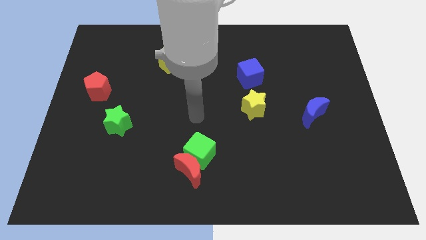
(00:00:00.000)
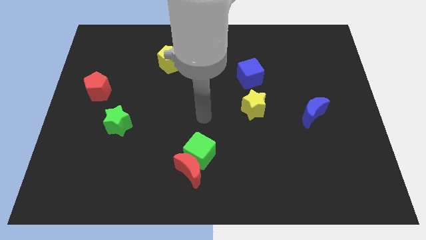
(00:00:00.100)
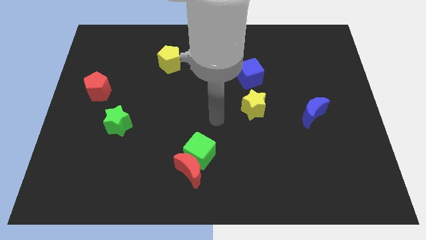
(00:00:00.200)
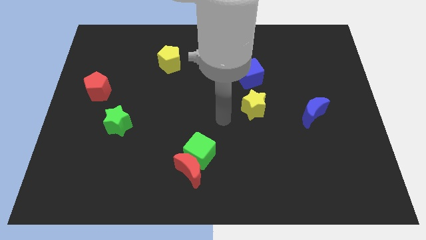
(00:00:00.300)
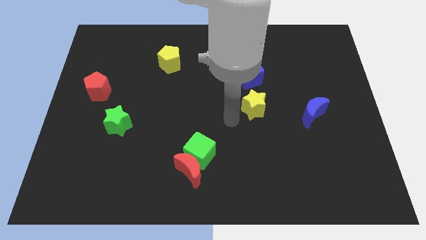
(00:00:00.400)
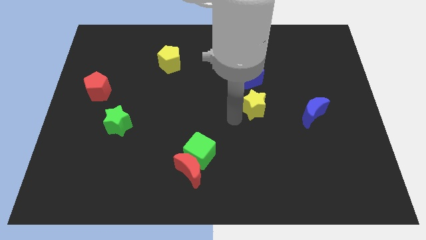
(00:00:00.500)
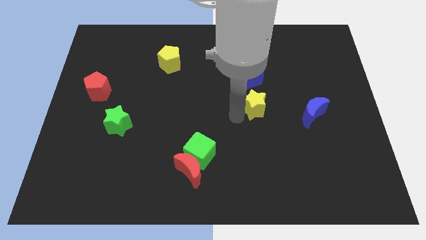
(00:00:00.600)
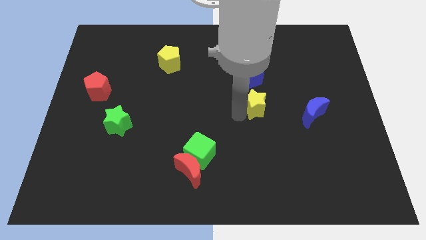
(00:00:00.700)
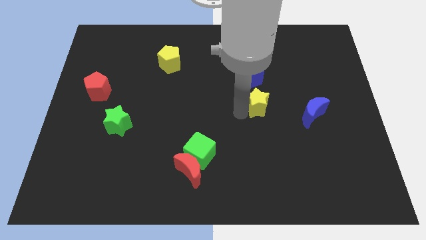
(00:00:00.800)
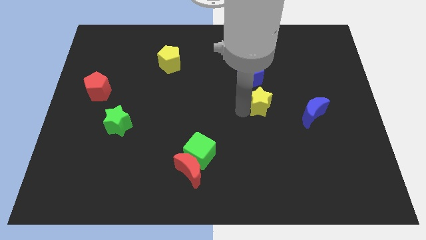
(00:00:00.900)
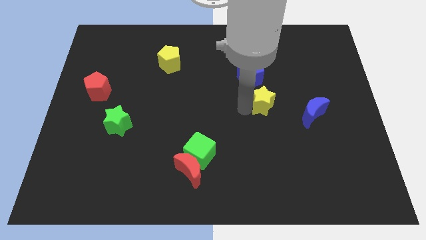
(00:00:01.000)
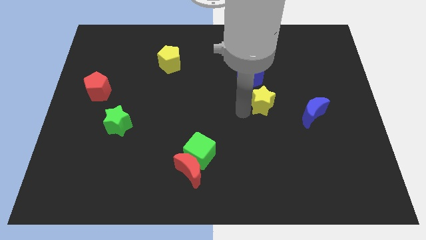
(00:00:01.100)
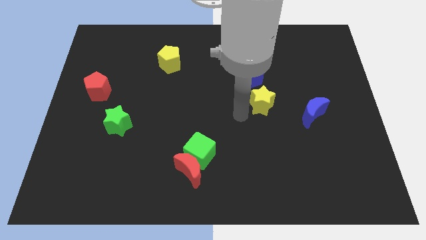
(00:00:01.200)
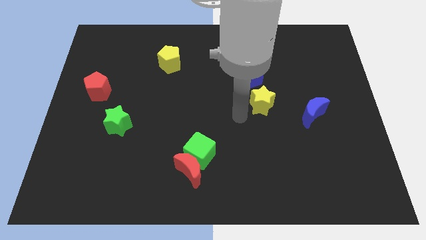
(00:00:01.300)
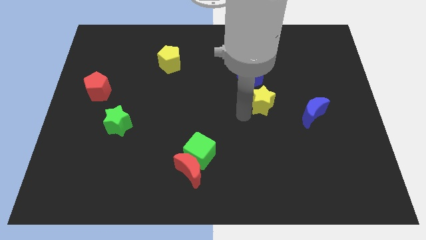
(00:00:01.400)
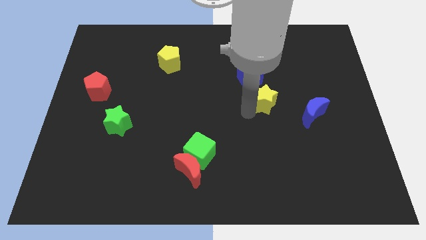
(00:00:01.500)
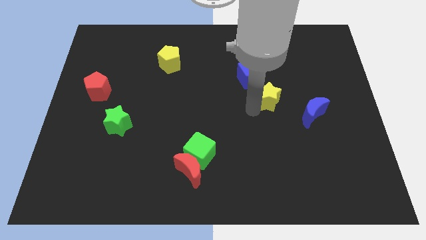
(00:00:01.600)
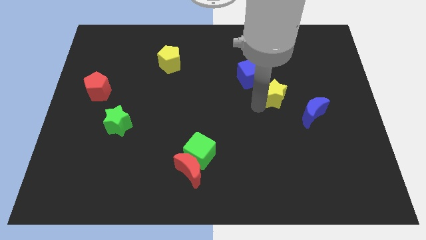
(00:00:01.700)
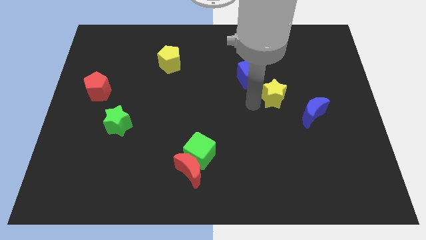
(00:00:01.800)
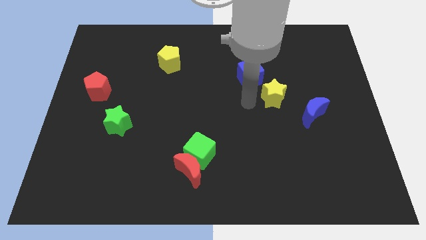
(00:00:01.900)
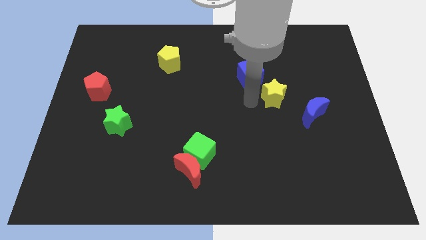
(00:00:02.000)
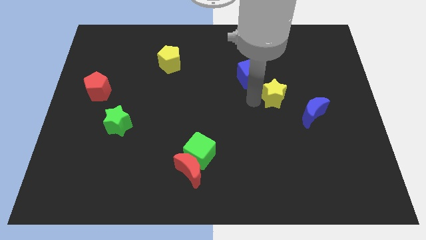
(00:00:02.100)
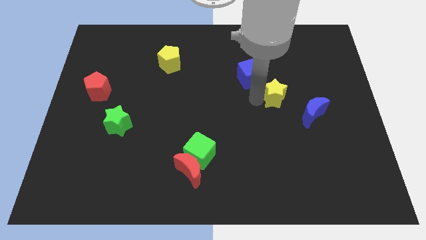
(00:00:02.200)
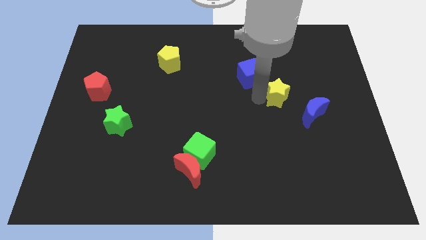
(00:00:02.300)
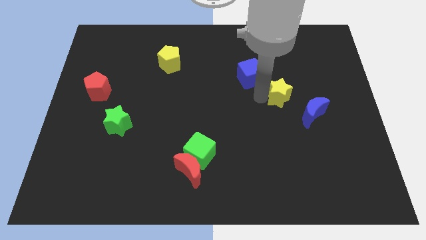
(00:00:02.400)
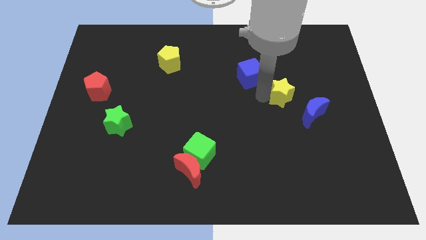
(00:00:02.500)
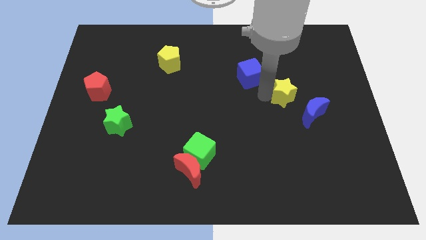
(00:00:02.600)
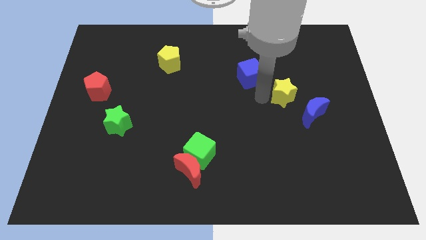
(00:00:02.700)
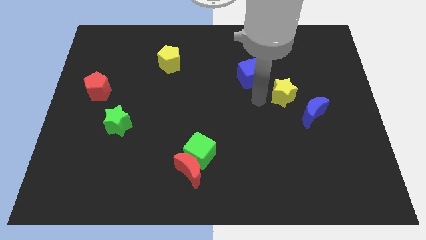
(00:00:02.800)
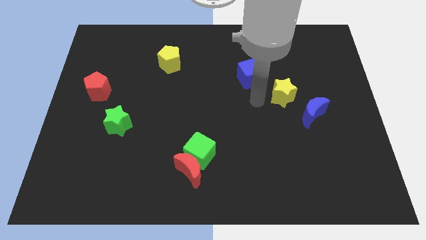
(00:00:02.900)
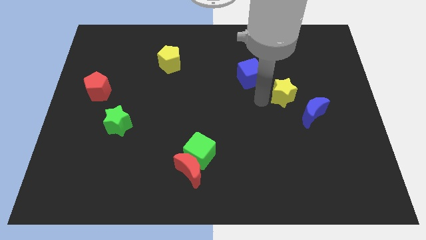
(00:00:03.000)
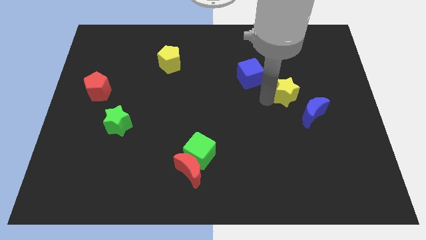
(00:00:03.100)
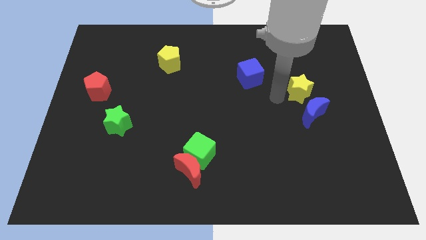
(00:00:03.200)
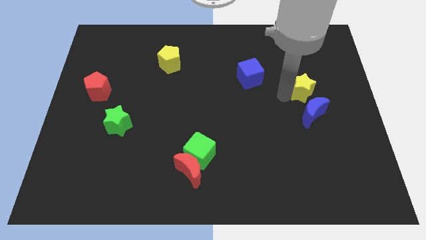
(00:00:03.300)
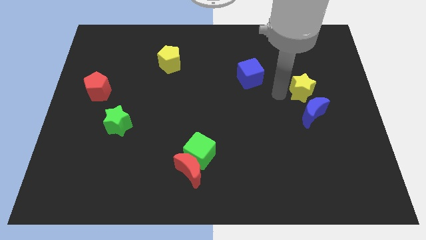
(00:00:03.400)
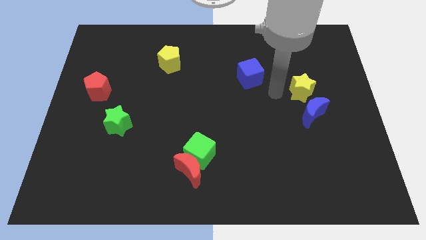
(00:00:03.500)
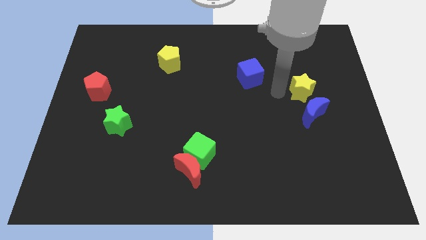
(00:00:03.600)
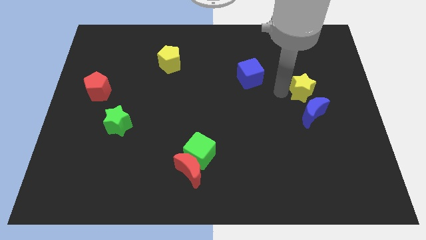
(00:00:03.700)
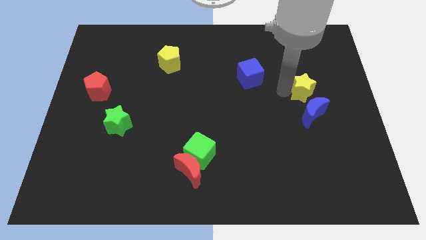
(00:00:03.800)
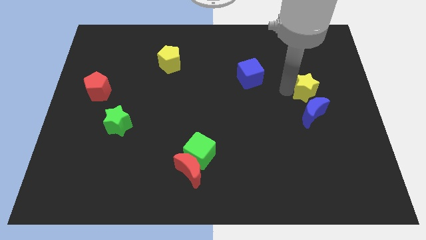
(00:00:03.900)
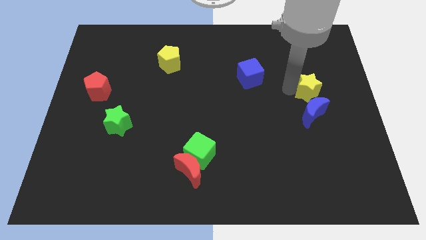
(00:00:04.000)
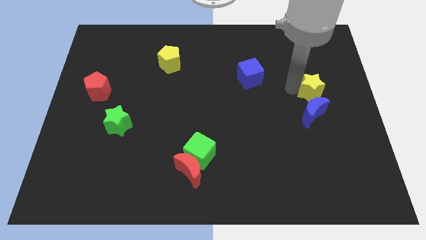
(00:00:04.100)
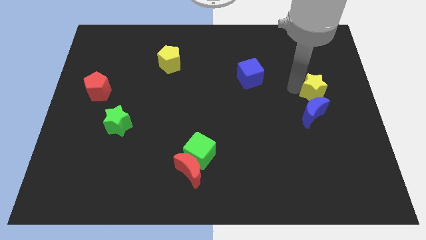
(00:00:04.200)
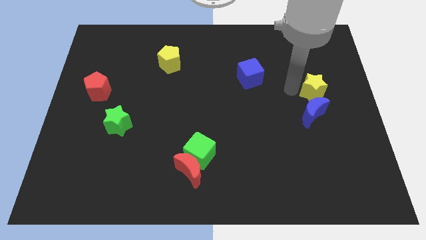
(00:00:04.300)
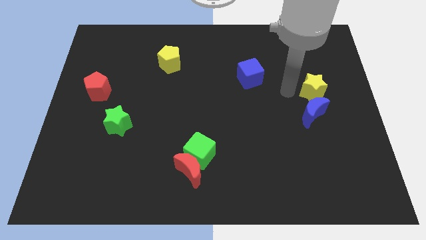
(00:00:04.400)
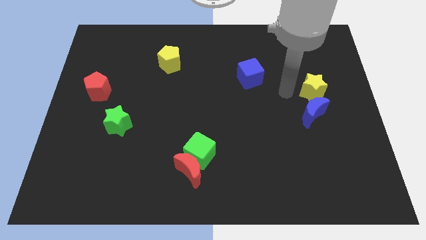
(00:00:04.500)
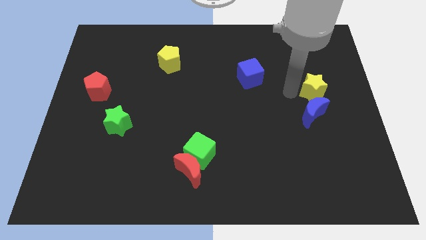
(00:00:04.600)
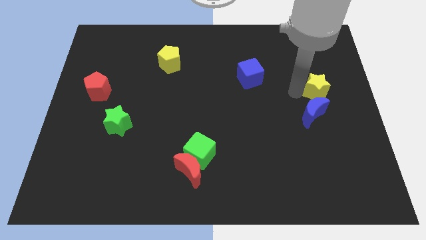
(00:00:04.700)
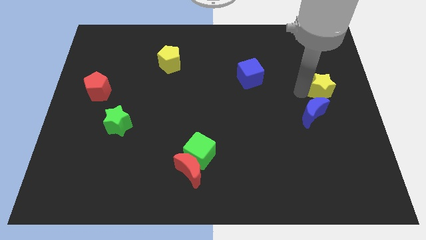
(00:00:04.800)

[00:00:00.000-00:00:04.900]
move the yellow star to the center right

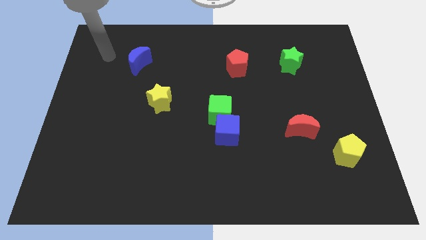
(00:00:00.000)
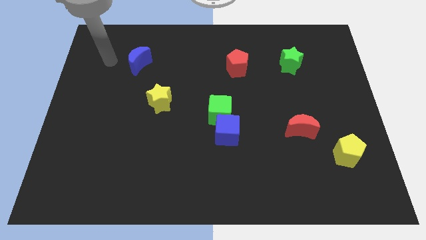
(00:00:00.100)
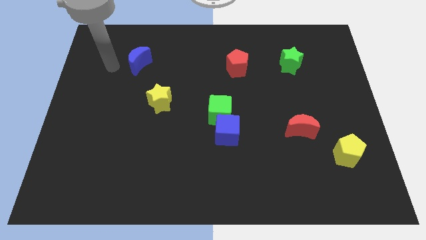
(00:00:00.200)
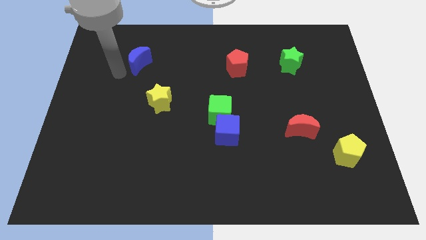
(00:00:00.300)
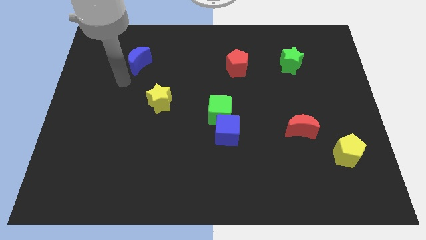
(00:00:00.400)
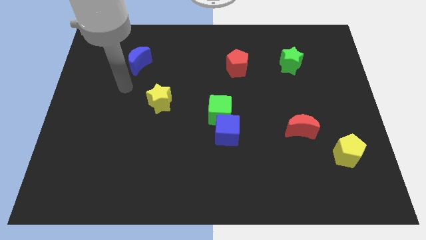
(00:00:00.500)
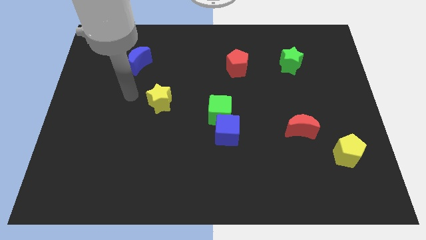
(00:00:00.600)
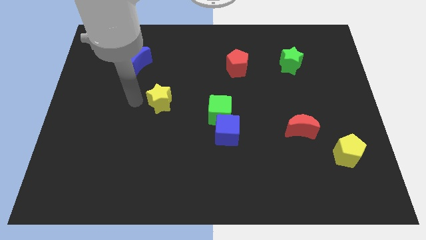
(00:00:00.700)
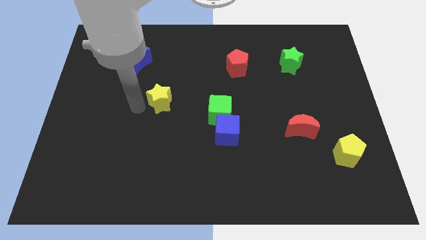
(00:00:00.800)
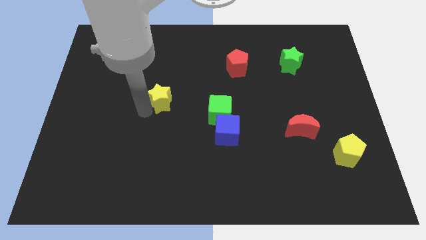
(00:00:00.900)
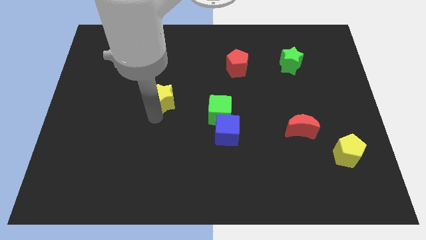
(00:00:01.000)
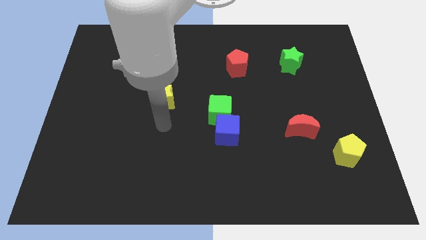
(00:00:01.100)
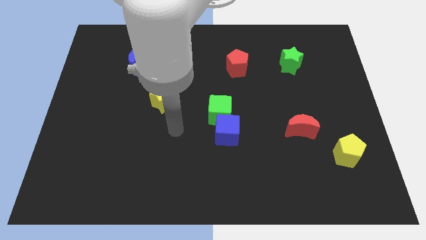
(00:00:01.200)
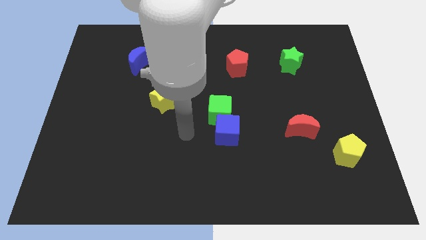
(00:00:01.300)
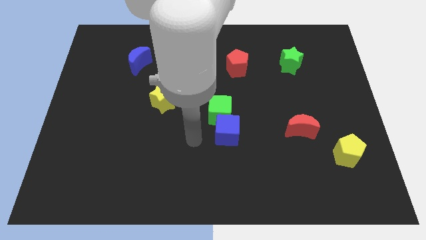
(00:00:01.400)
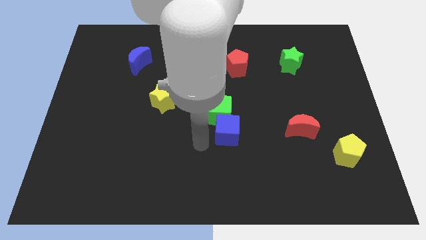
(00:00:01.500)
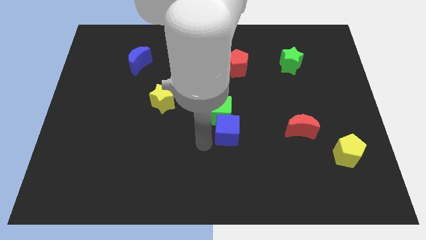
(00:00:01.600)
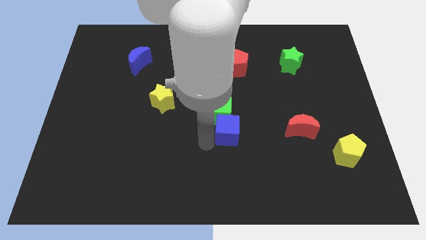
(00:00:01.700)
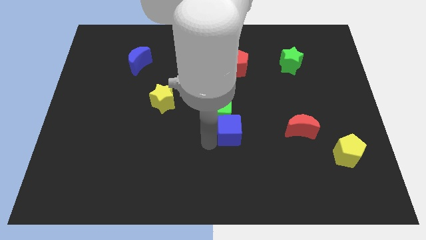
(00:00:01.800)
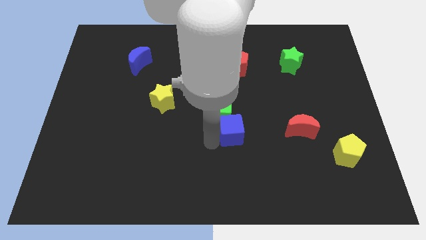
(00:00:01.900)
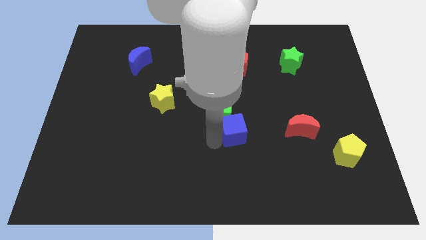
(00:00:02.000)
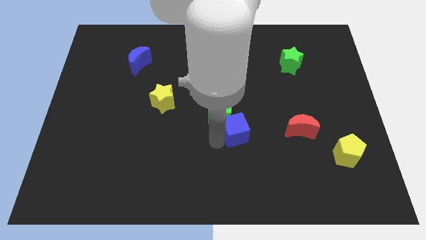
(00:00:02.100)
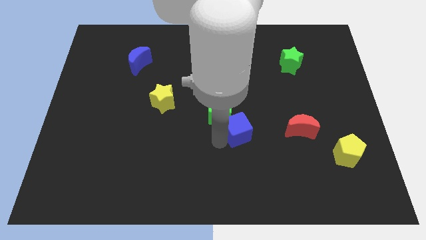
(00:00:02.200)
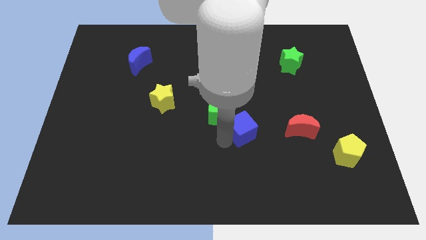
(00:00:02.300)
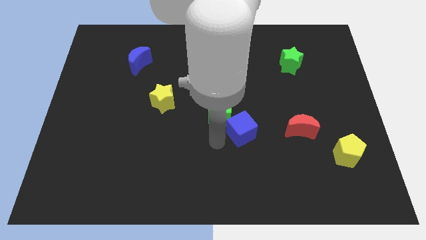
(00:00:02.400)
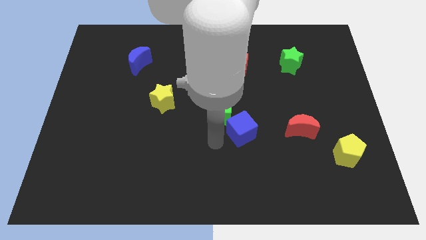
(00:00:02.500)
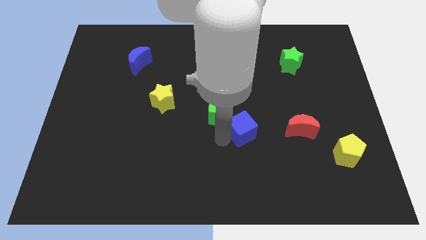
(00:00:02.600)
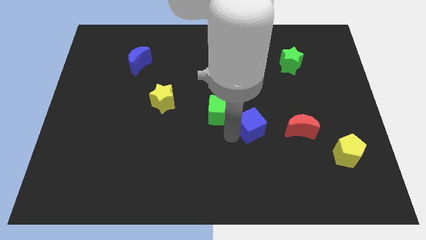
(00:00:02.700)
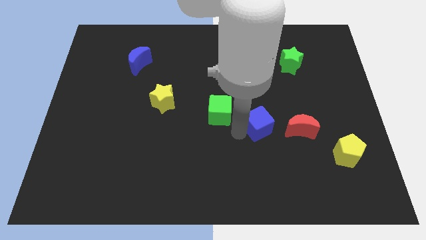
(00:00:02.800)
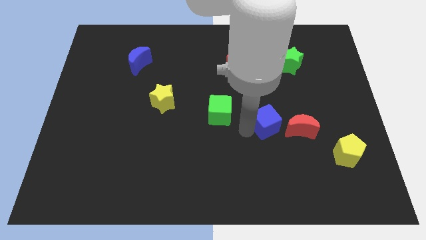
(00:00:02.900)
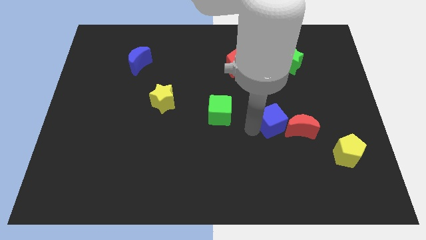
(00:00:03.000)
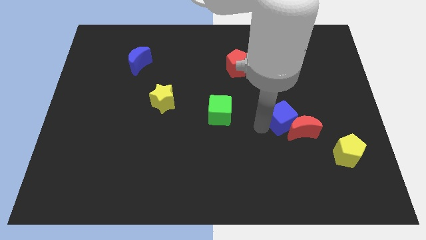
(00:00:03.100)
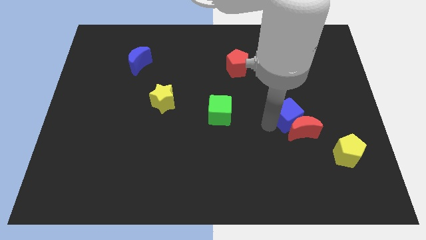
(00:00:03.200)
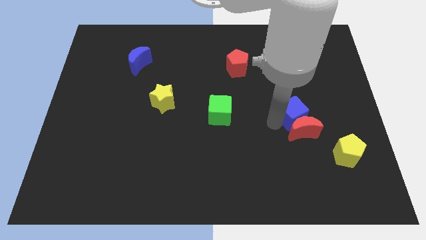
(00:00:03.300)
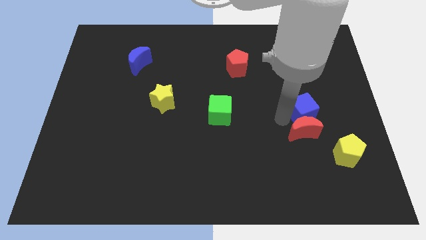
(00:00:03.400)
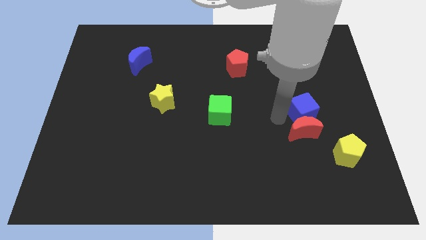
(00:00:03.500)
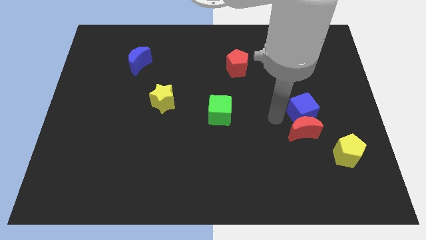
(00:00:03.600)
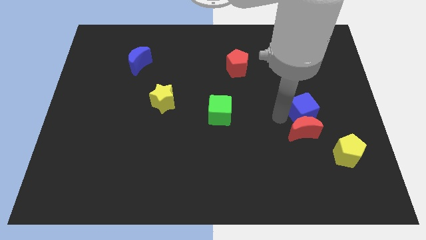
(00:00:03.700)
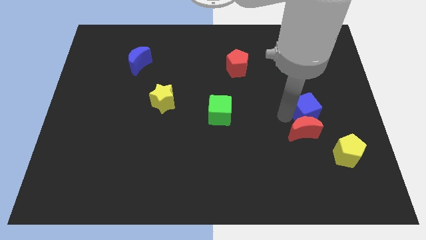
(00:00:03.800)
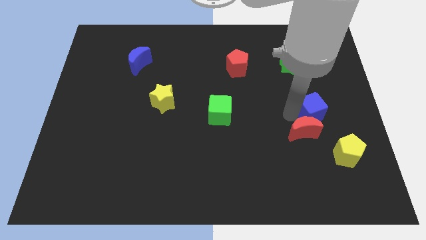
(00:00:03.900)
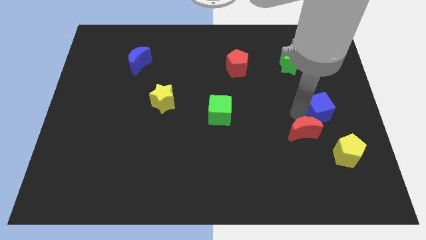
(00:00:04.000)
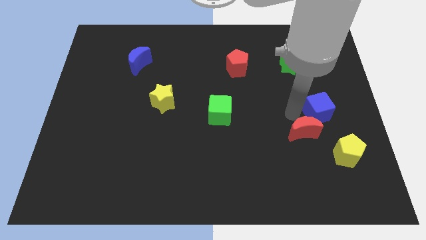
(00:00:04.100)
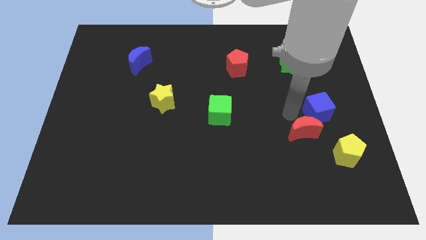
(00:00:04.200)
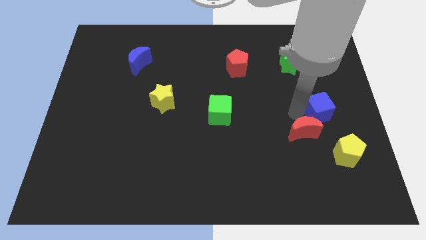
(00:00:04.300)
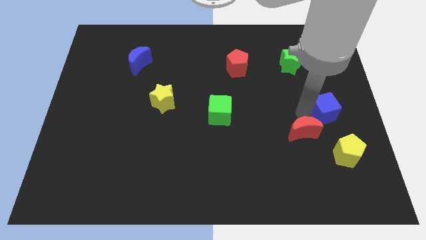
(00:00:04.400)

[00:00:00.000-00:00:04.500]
put the blue cube to the center right
